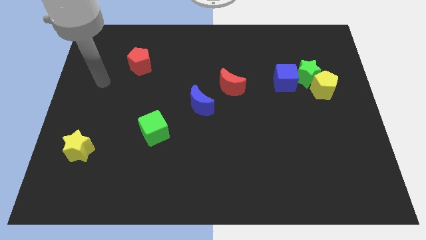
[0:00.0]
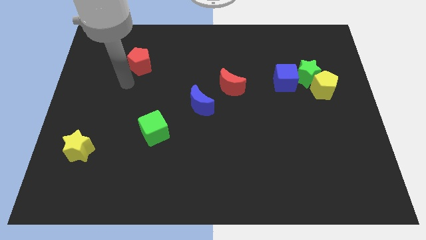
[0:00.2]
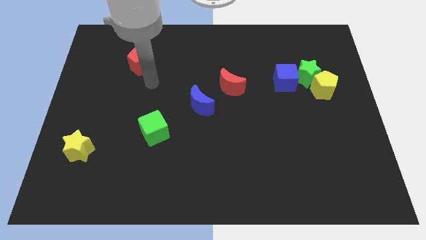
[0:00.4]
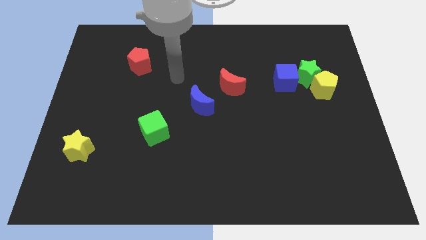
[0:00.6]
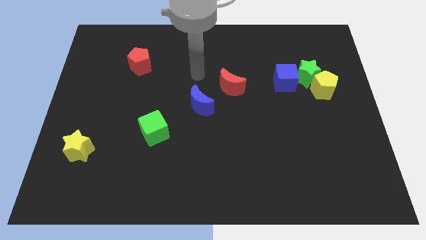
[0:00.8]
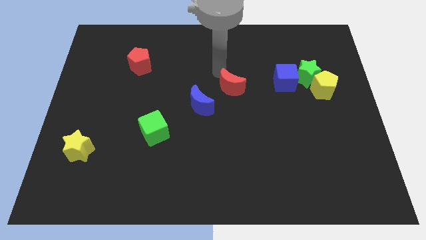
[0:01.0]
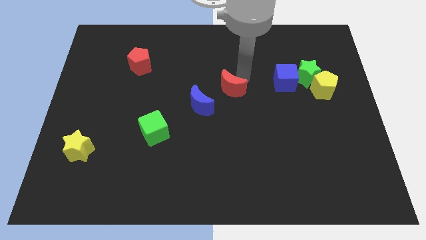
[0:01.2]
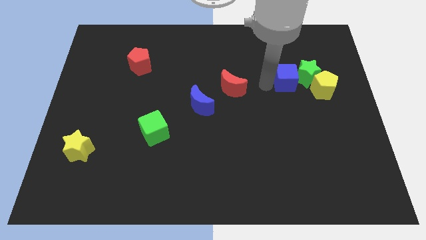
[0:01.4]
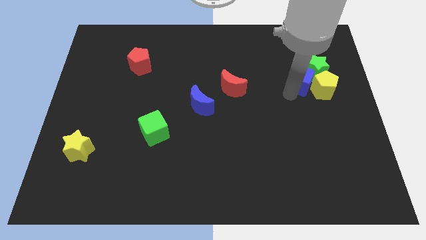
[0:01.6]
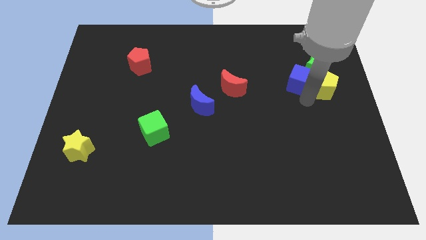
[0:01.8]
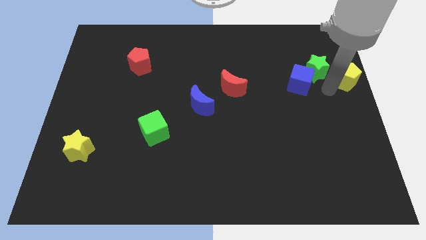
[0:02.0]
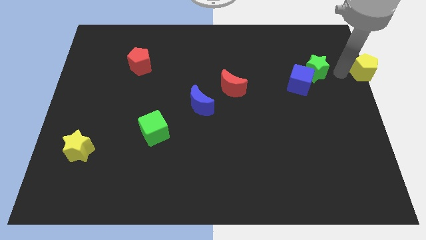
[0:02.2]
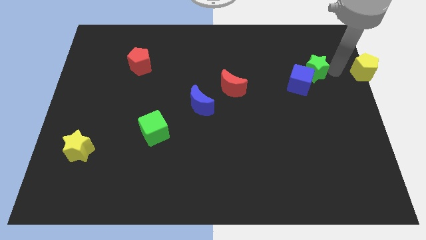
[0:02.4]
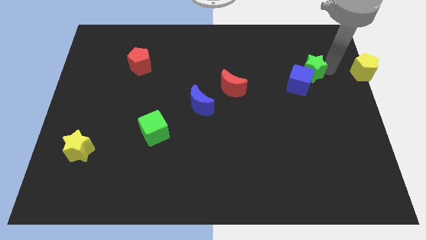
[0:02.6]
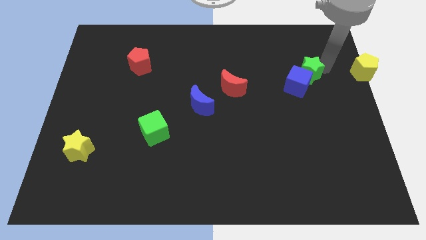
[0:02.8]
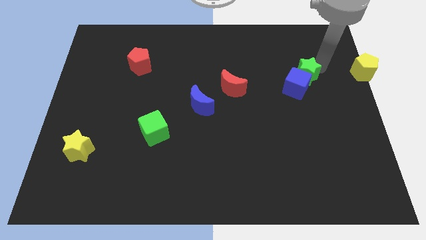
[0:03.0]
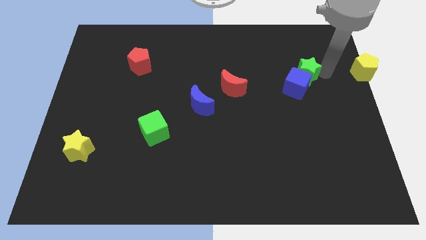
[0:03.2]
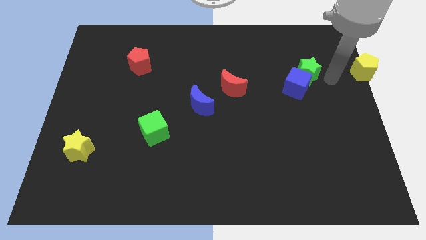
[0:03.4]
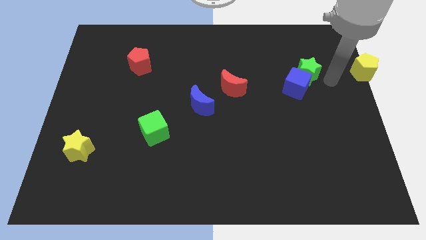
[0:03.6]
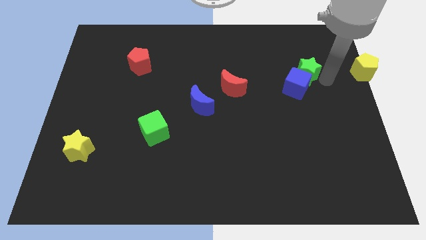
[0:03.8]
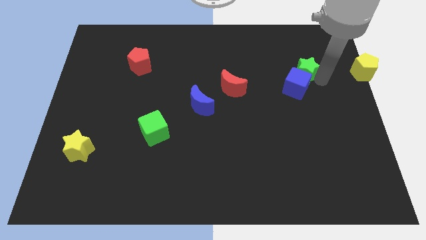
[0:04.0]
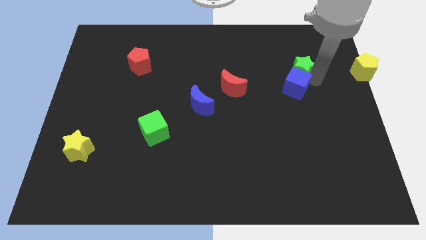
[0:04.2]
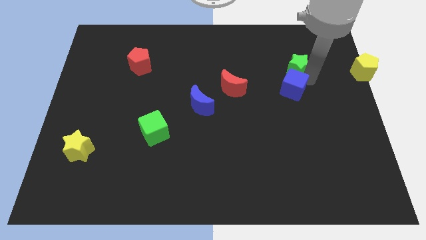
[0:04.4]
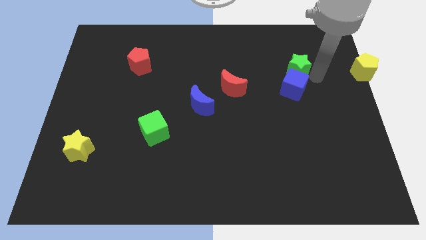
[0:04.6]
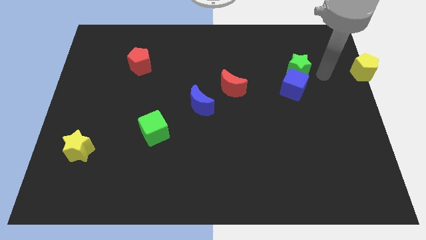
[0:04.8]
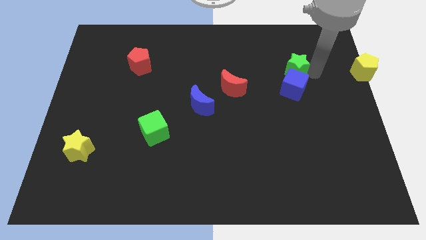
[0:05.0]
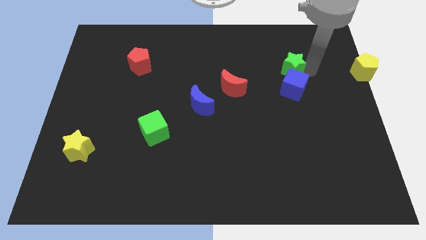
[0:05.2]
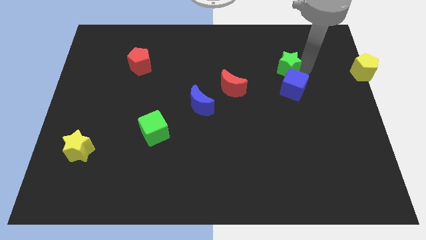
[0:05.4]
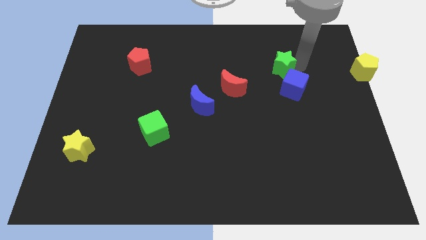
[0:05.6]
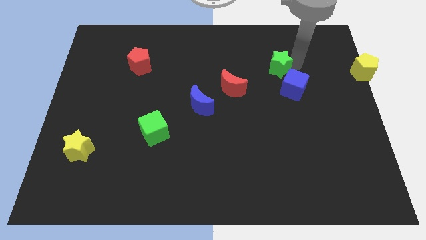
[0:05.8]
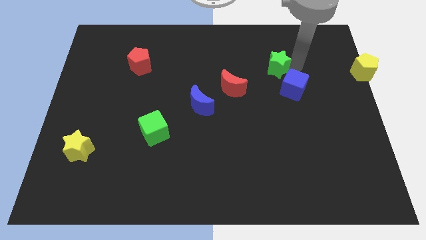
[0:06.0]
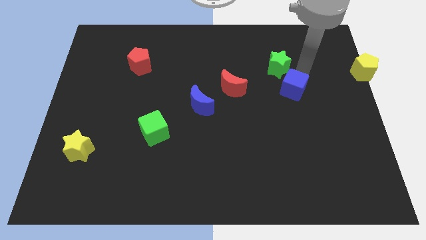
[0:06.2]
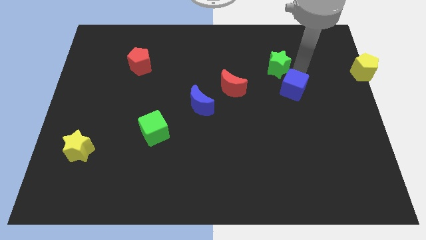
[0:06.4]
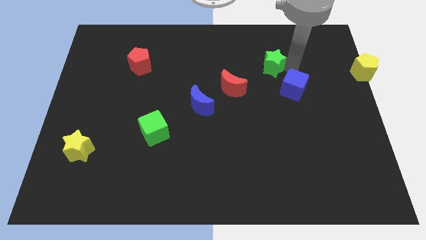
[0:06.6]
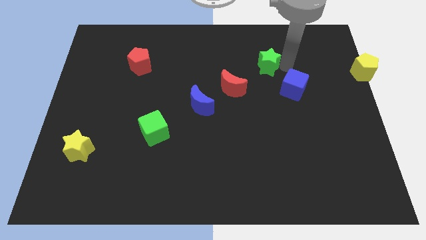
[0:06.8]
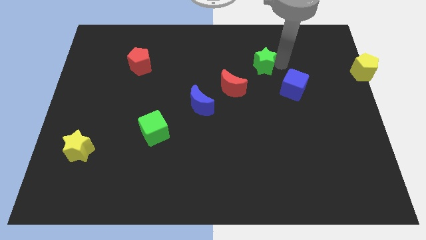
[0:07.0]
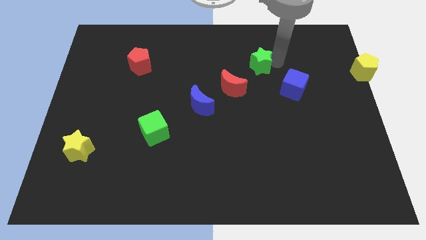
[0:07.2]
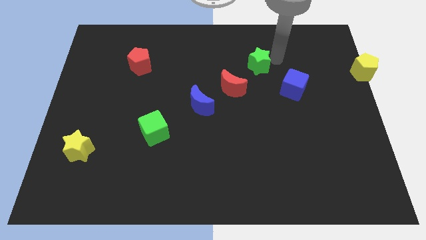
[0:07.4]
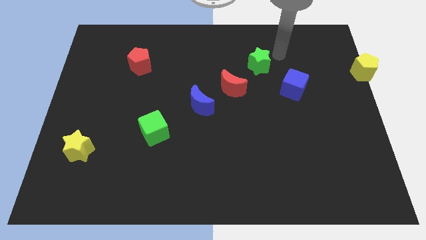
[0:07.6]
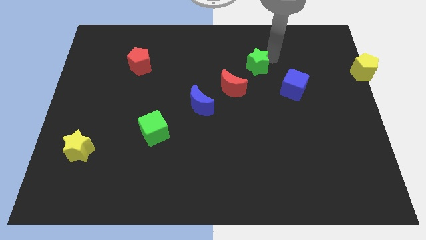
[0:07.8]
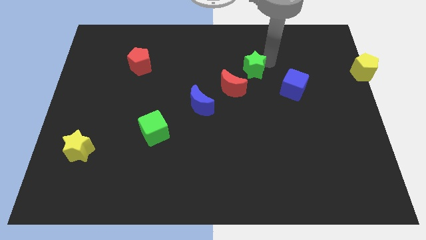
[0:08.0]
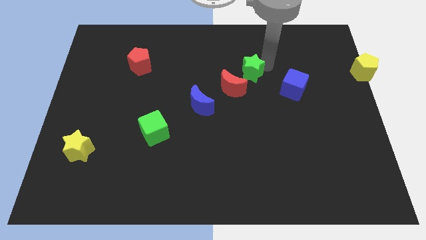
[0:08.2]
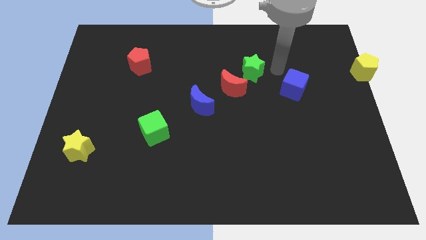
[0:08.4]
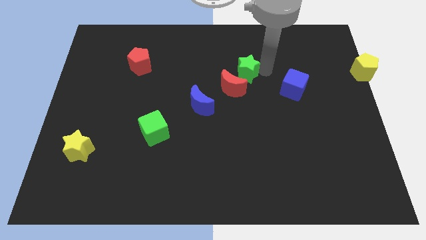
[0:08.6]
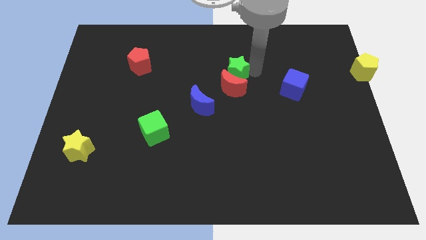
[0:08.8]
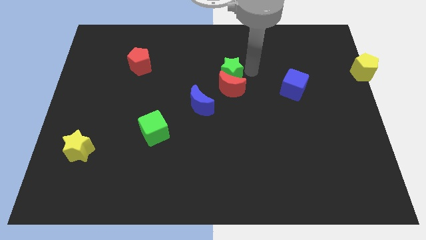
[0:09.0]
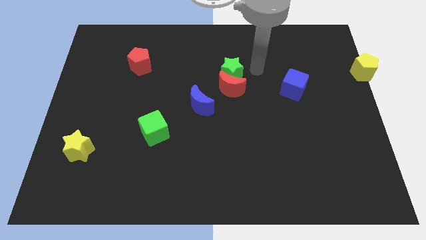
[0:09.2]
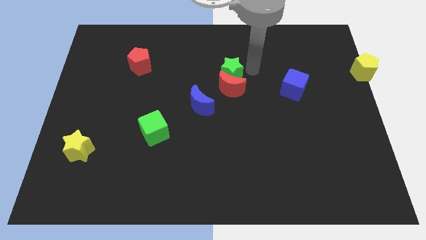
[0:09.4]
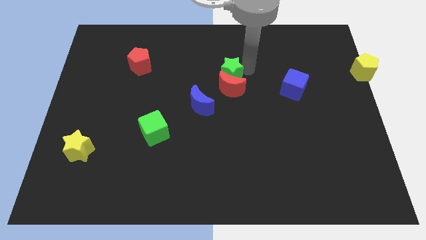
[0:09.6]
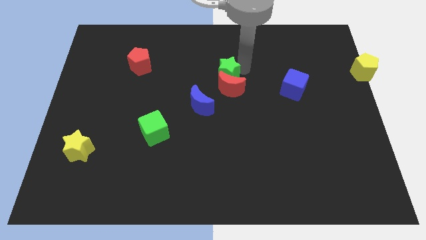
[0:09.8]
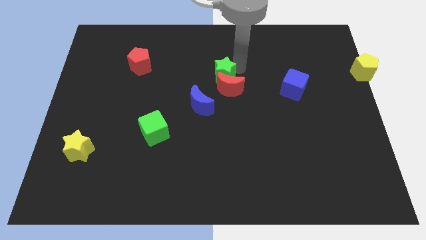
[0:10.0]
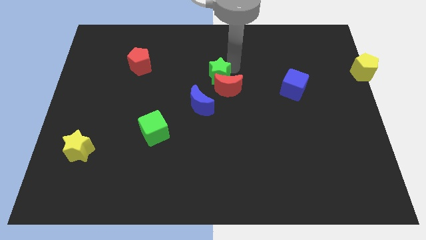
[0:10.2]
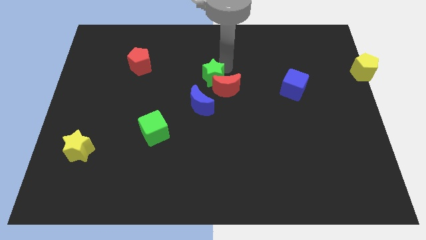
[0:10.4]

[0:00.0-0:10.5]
put the green star left of the red moon
